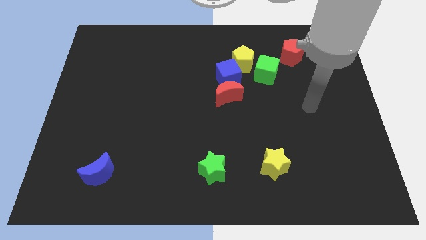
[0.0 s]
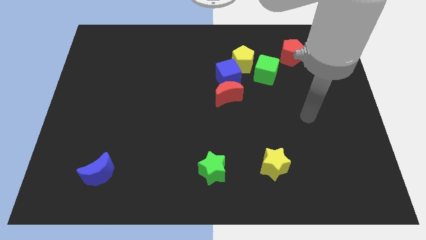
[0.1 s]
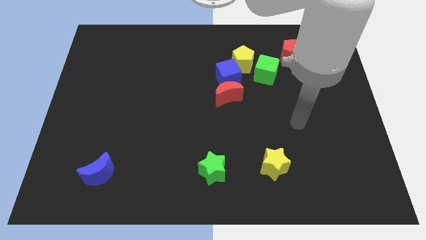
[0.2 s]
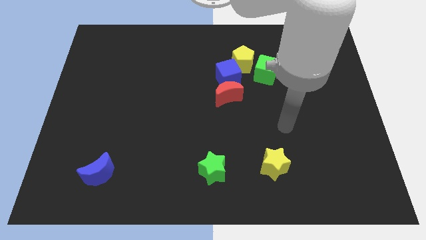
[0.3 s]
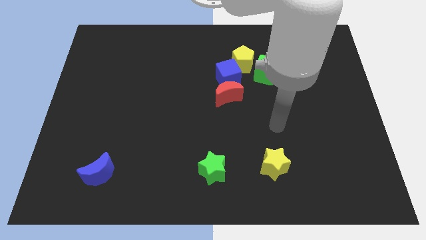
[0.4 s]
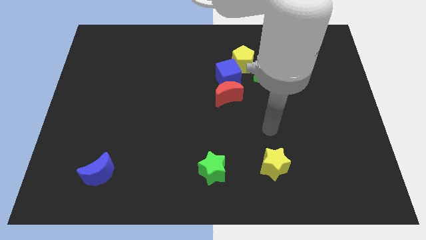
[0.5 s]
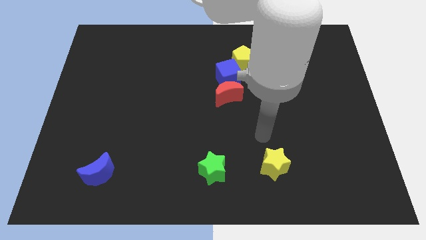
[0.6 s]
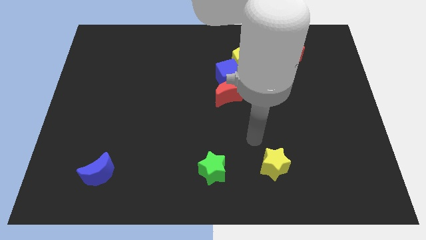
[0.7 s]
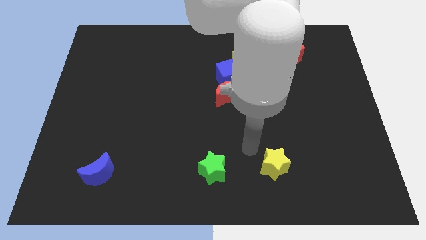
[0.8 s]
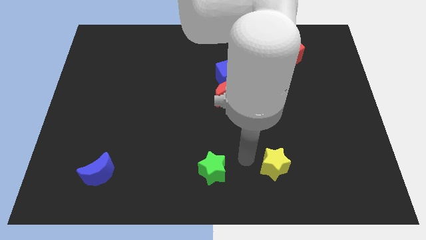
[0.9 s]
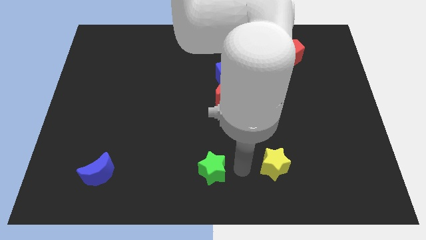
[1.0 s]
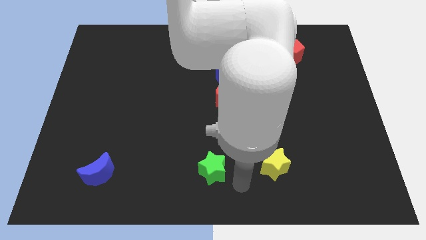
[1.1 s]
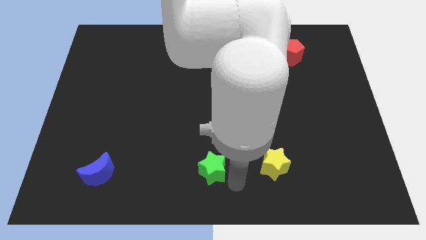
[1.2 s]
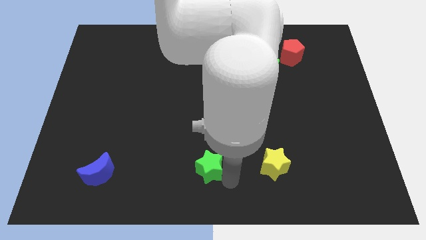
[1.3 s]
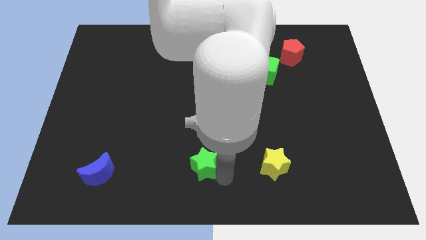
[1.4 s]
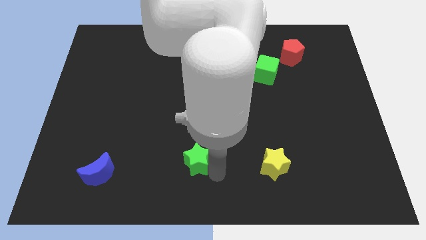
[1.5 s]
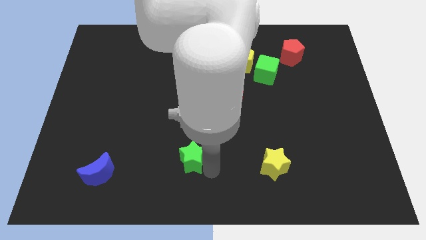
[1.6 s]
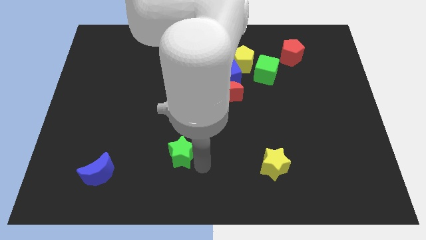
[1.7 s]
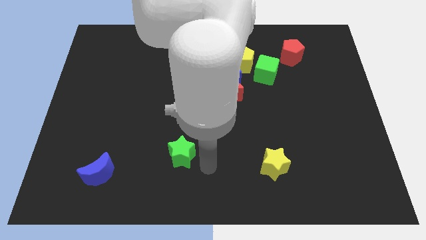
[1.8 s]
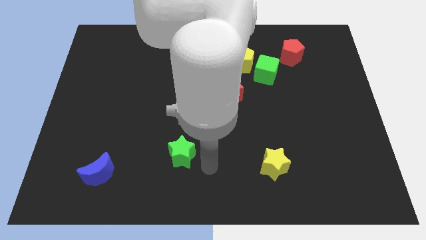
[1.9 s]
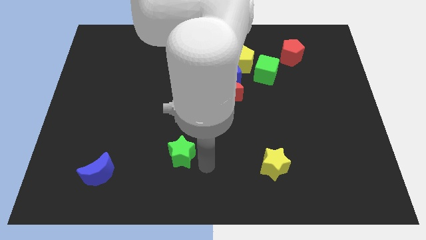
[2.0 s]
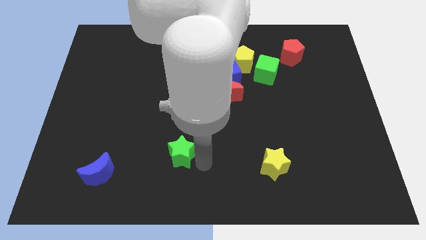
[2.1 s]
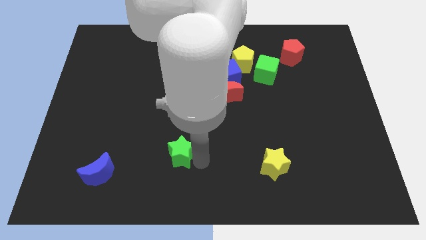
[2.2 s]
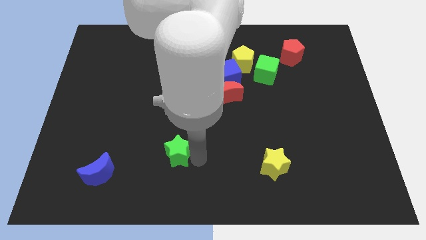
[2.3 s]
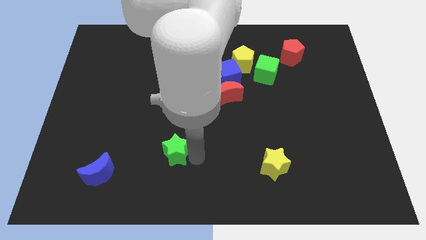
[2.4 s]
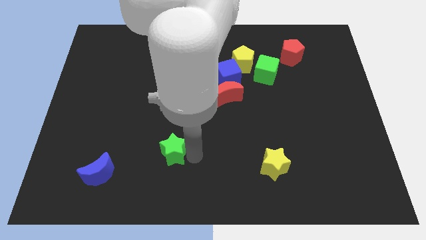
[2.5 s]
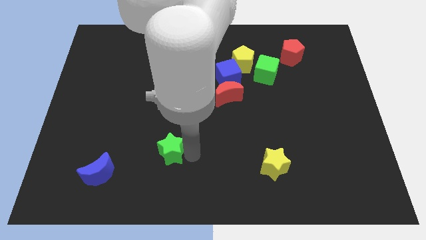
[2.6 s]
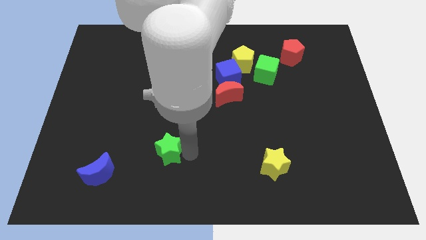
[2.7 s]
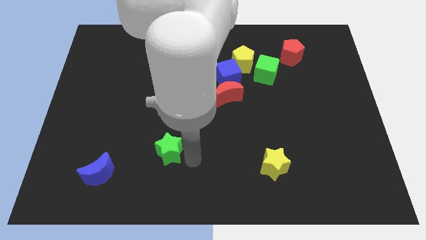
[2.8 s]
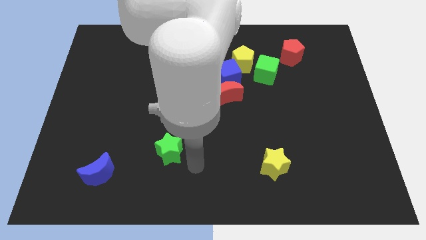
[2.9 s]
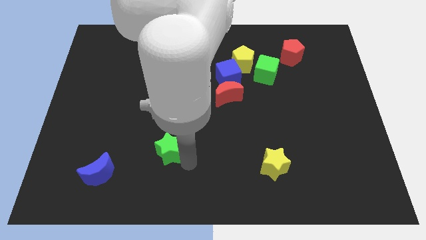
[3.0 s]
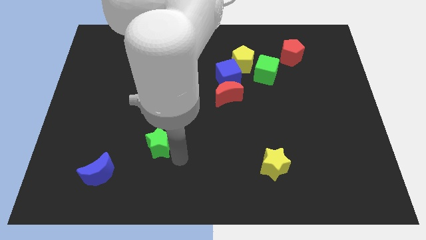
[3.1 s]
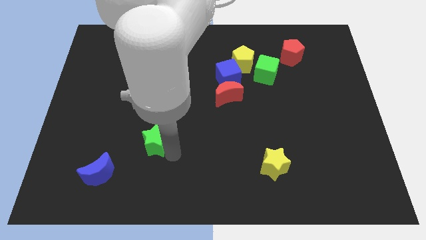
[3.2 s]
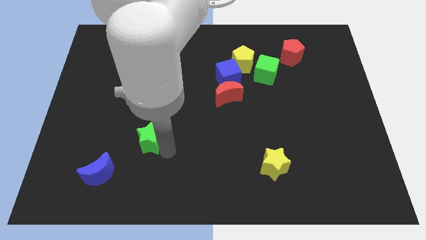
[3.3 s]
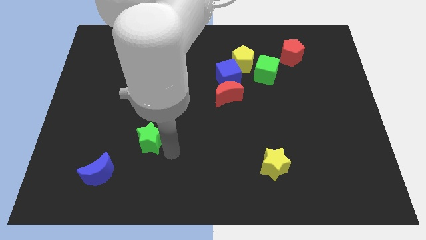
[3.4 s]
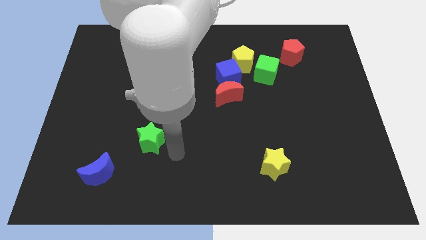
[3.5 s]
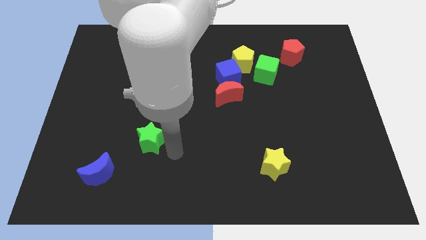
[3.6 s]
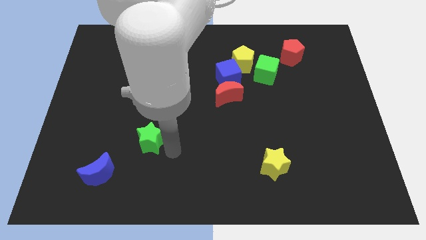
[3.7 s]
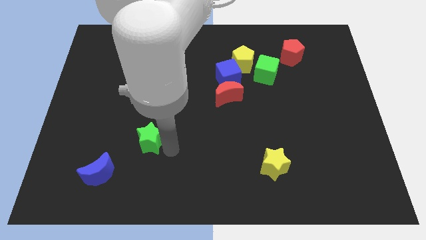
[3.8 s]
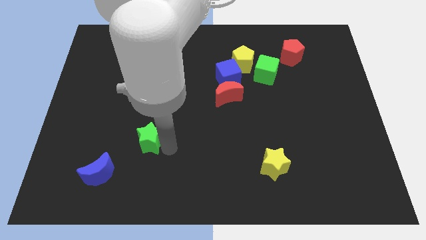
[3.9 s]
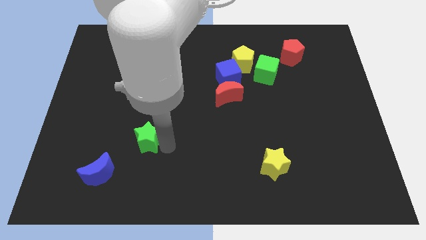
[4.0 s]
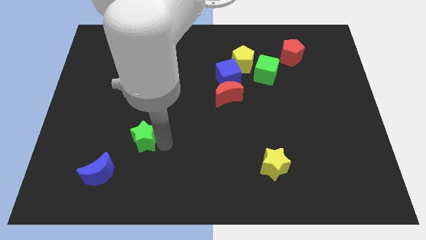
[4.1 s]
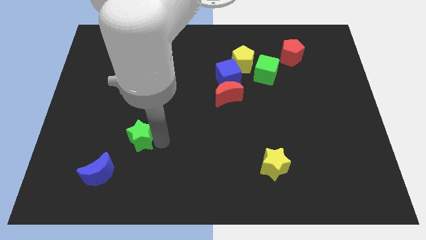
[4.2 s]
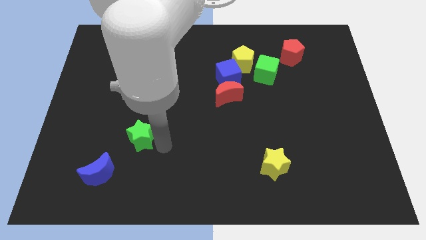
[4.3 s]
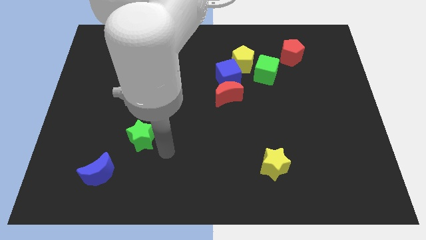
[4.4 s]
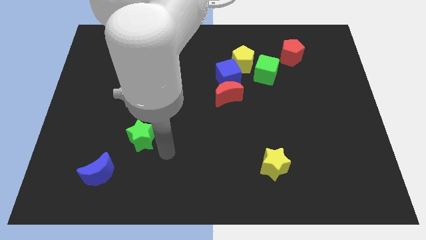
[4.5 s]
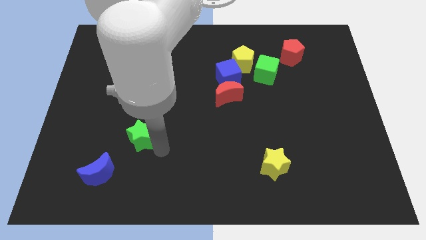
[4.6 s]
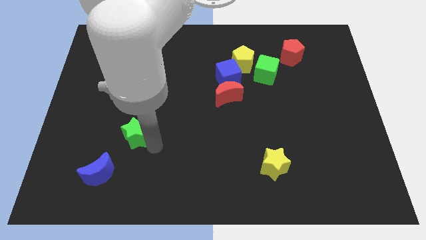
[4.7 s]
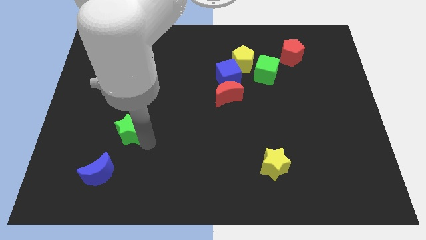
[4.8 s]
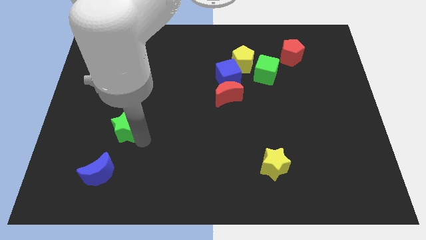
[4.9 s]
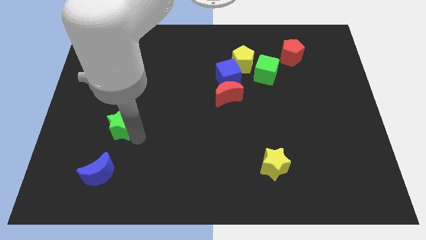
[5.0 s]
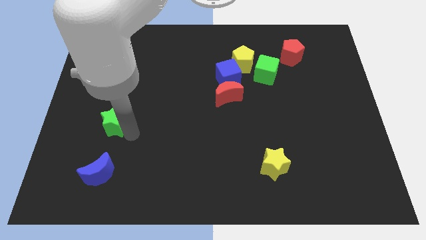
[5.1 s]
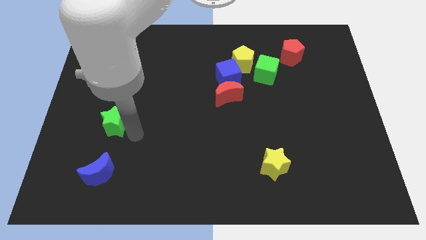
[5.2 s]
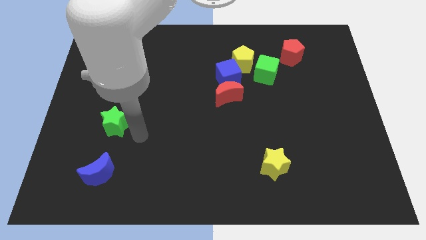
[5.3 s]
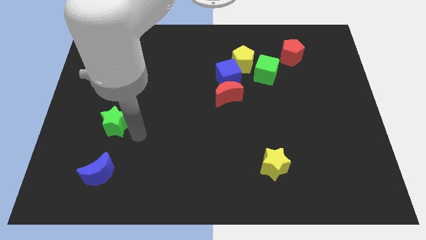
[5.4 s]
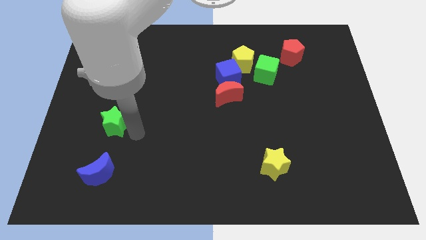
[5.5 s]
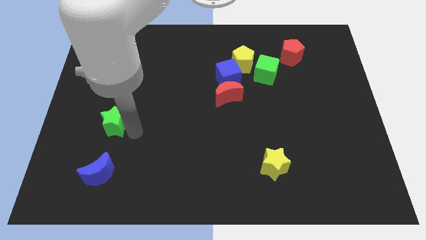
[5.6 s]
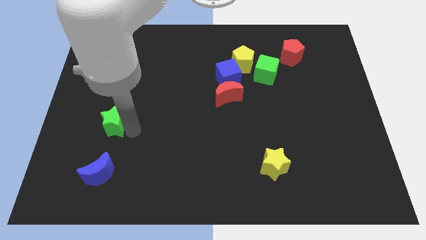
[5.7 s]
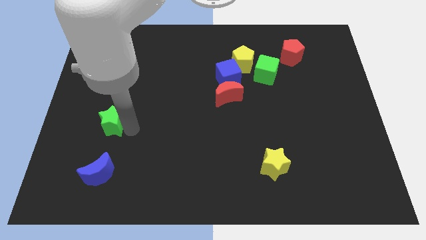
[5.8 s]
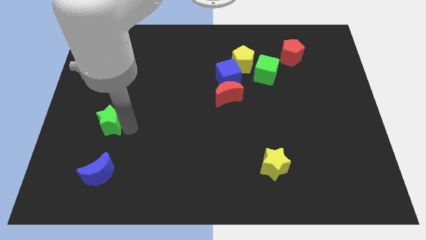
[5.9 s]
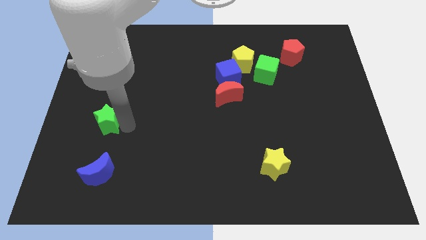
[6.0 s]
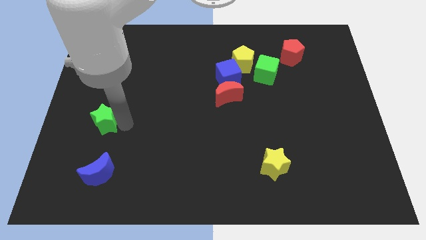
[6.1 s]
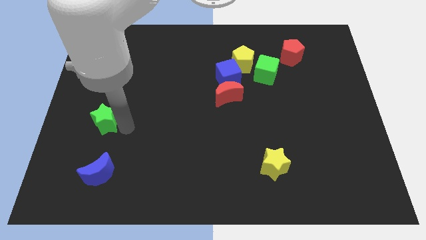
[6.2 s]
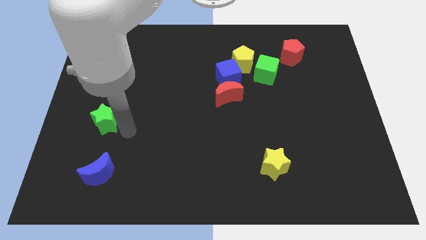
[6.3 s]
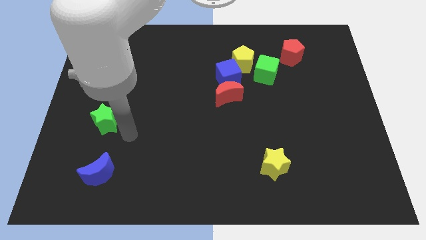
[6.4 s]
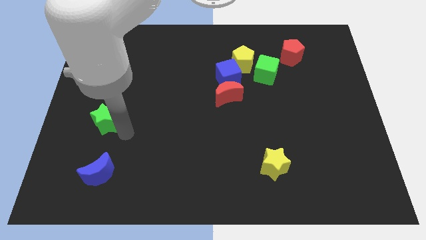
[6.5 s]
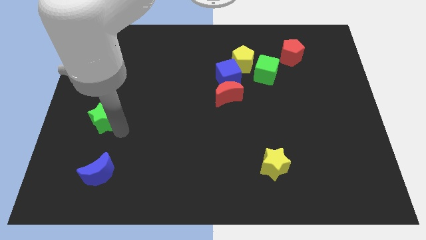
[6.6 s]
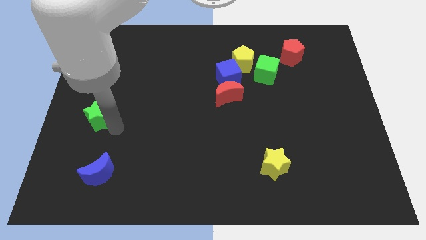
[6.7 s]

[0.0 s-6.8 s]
slide the green star to the left side

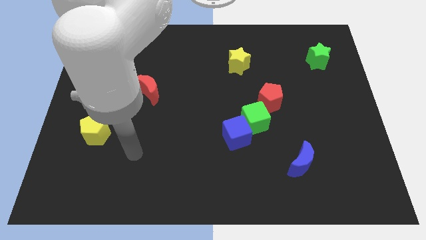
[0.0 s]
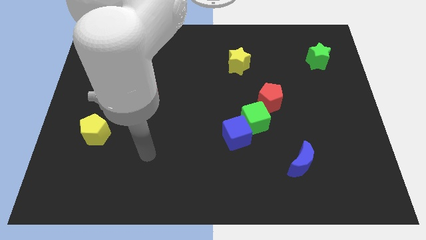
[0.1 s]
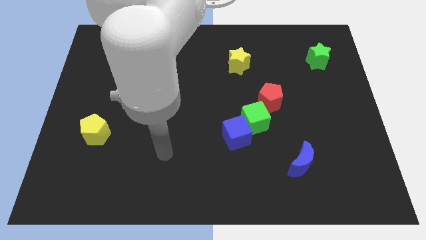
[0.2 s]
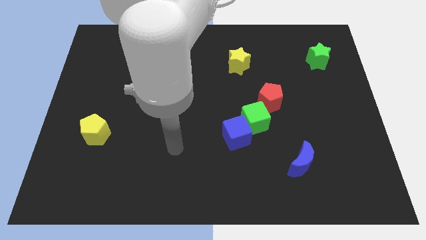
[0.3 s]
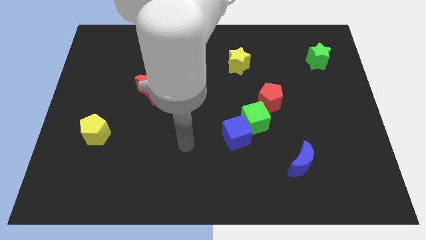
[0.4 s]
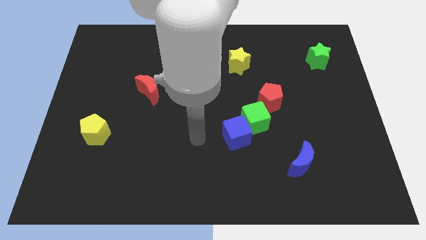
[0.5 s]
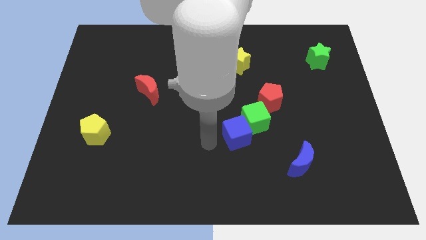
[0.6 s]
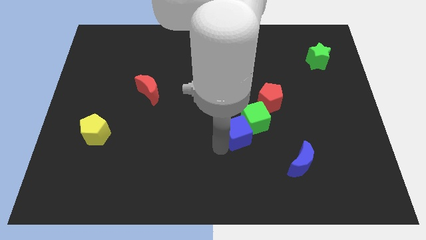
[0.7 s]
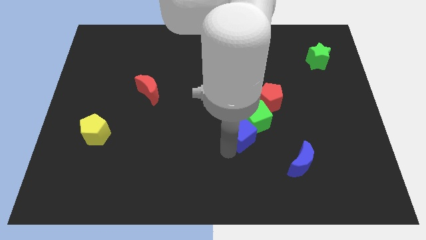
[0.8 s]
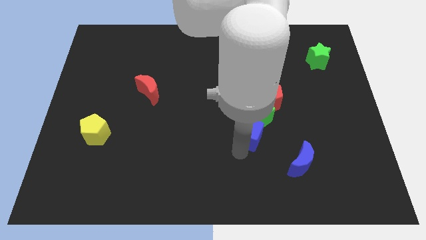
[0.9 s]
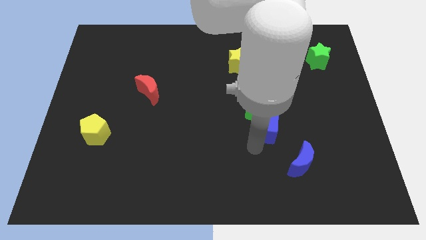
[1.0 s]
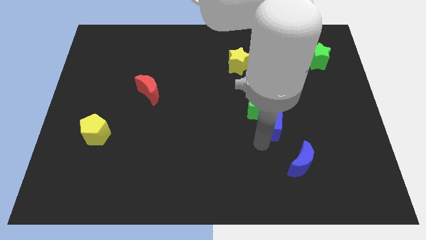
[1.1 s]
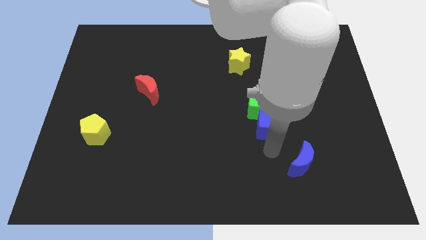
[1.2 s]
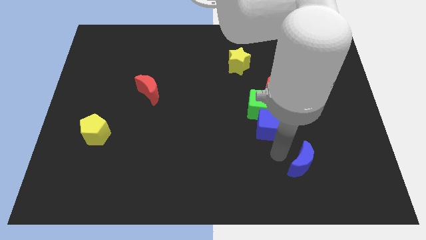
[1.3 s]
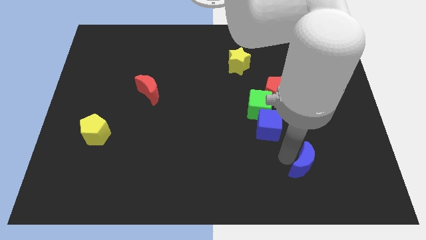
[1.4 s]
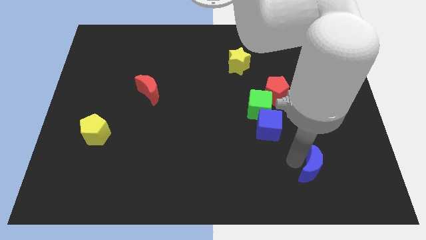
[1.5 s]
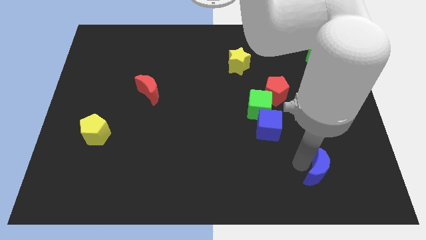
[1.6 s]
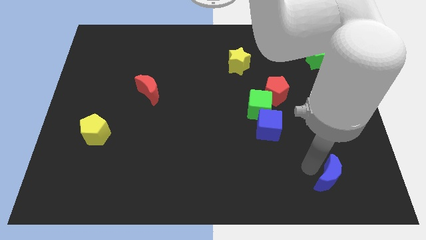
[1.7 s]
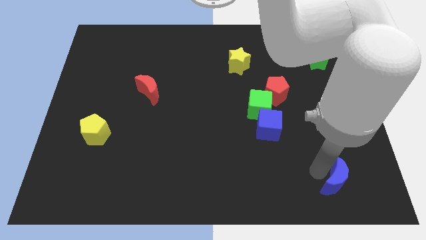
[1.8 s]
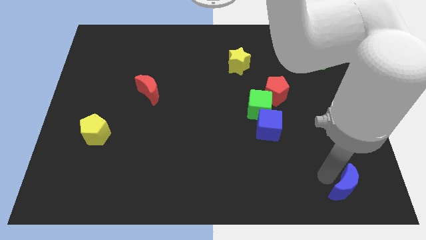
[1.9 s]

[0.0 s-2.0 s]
slide the blue moon to the lower right corner
